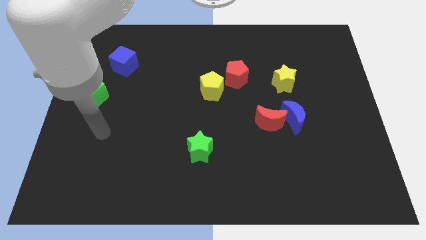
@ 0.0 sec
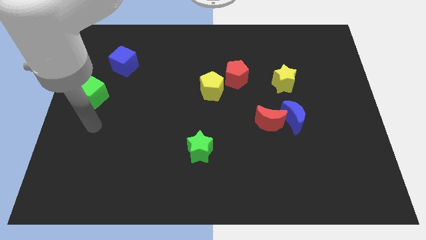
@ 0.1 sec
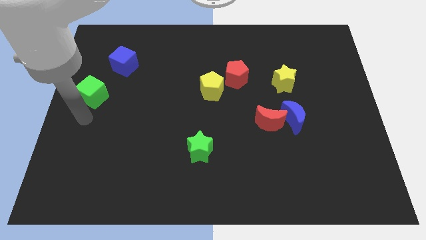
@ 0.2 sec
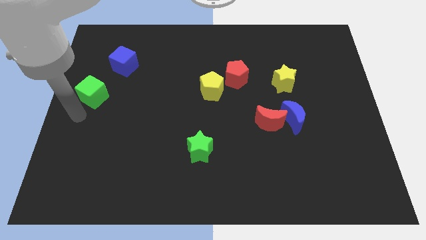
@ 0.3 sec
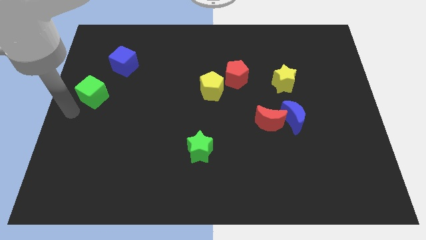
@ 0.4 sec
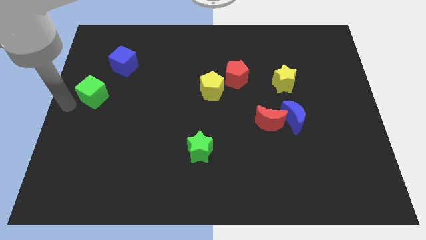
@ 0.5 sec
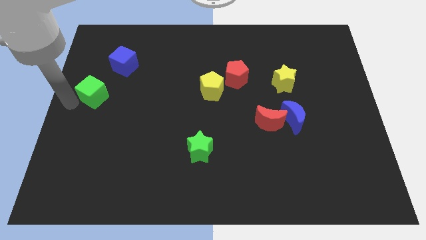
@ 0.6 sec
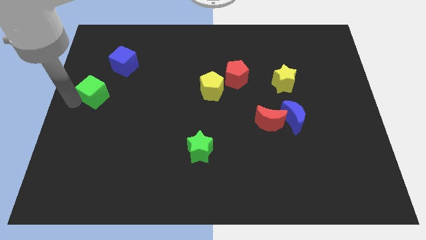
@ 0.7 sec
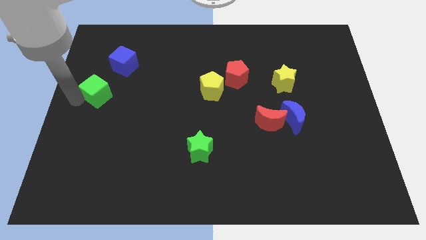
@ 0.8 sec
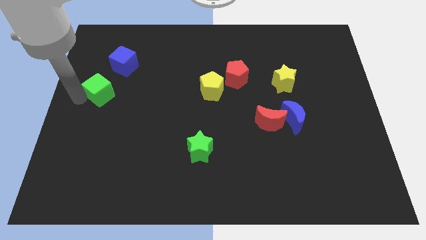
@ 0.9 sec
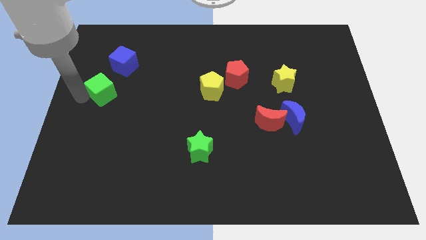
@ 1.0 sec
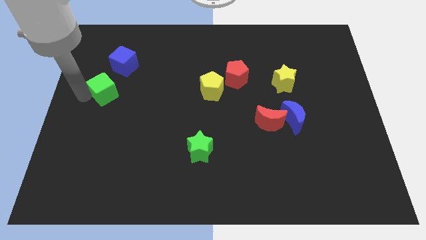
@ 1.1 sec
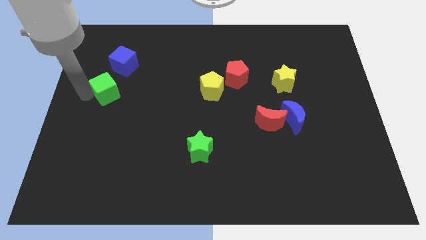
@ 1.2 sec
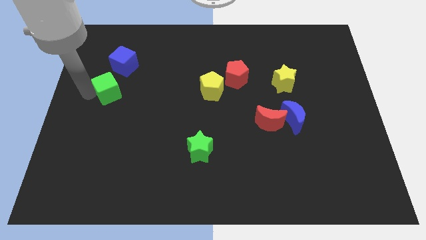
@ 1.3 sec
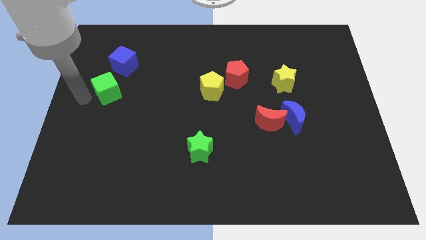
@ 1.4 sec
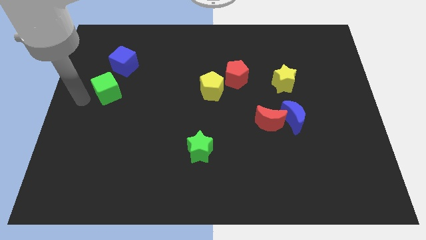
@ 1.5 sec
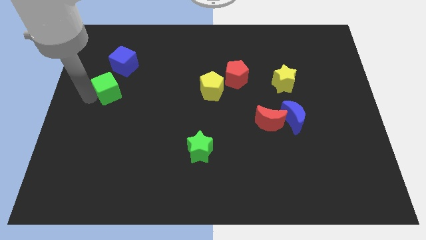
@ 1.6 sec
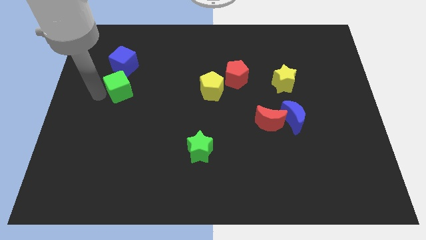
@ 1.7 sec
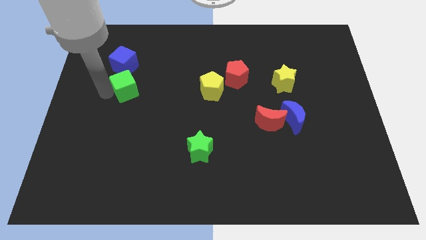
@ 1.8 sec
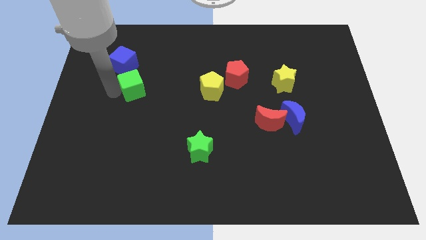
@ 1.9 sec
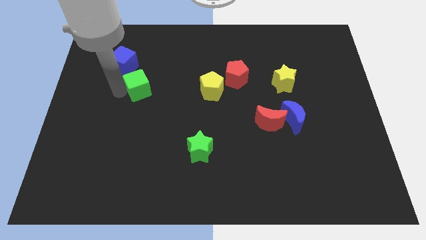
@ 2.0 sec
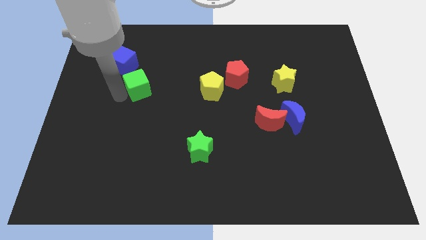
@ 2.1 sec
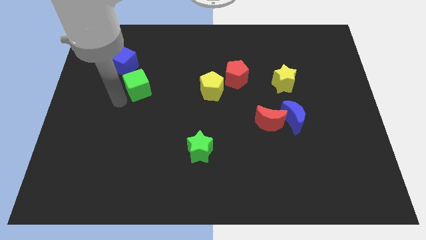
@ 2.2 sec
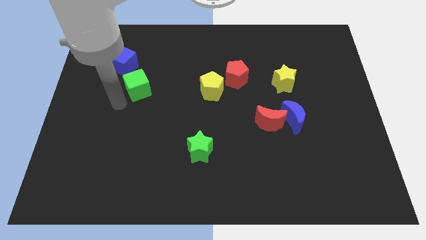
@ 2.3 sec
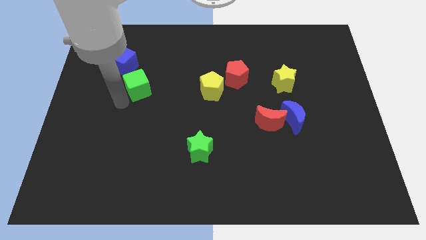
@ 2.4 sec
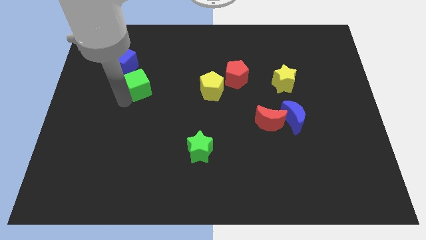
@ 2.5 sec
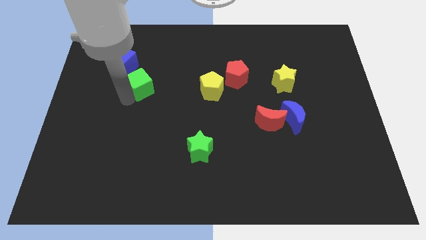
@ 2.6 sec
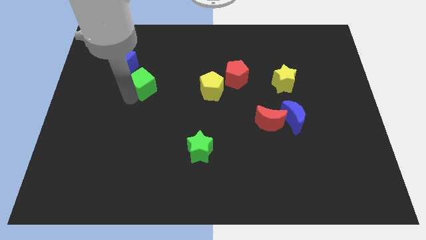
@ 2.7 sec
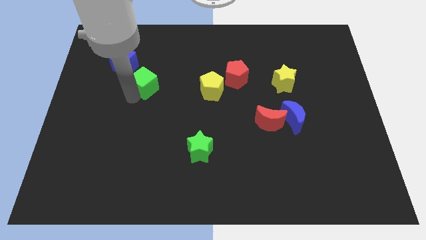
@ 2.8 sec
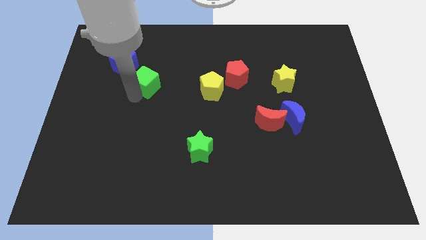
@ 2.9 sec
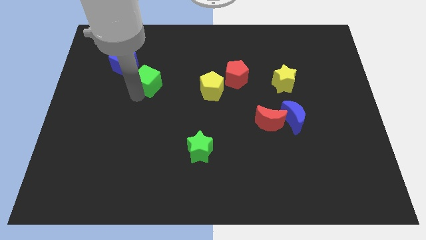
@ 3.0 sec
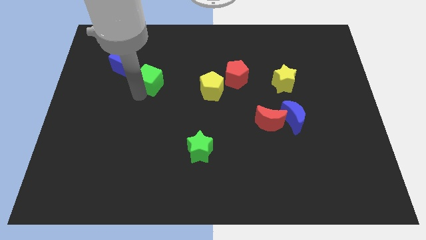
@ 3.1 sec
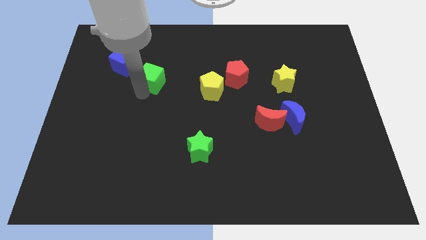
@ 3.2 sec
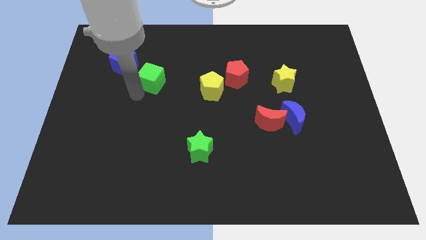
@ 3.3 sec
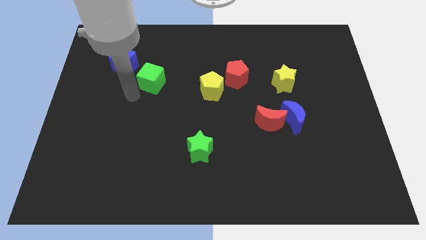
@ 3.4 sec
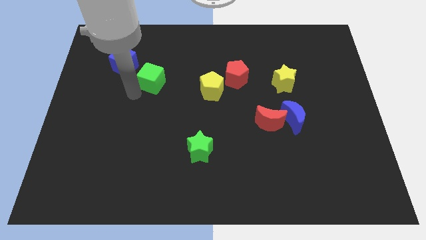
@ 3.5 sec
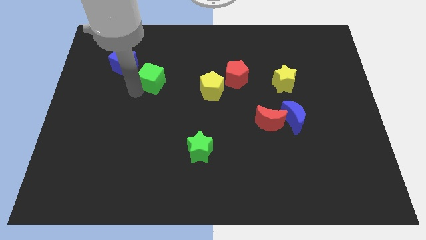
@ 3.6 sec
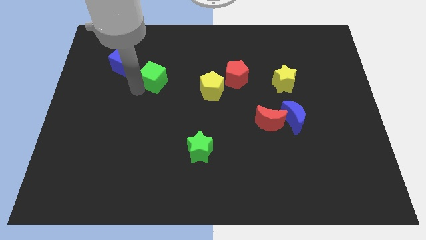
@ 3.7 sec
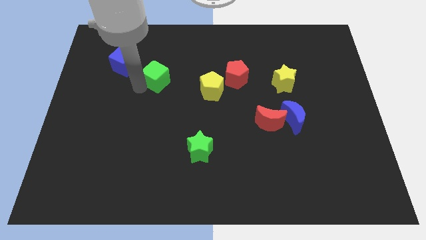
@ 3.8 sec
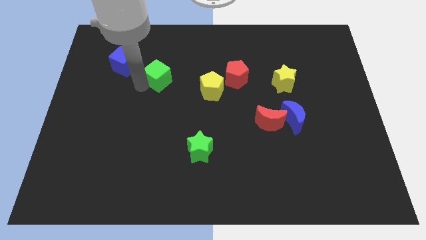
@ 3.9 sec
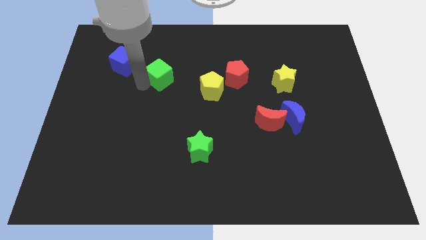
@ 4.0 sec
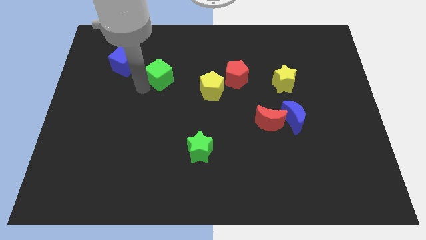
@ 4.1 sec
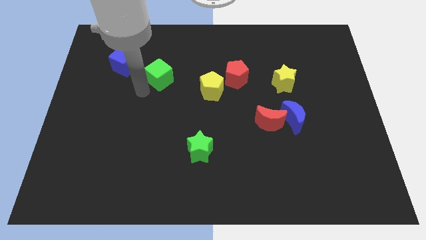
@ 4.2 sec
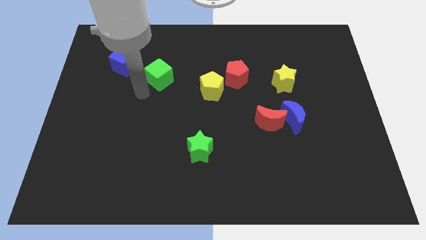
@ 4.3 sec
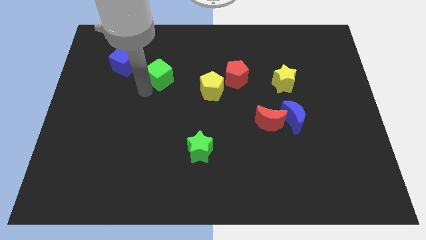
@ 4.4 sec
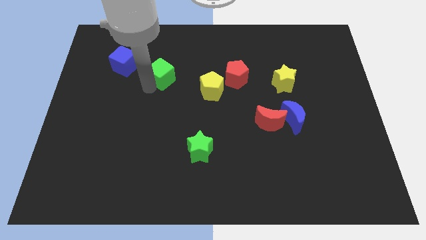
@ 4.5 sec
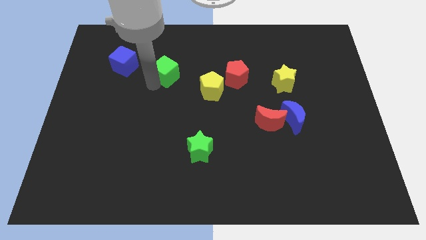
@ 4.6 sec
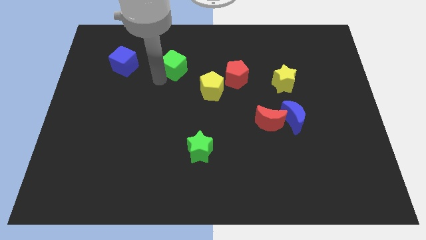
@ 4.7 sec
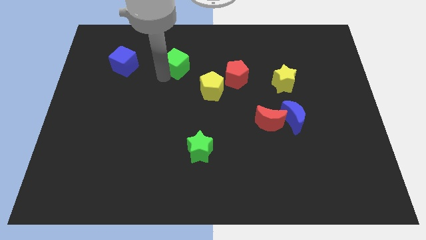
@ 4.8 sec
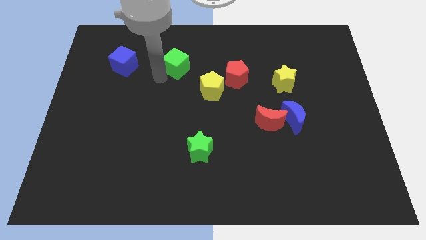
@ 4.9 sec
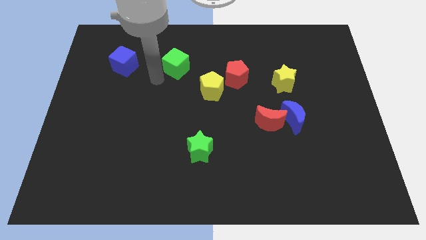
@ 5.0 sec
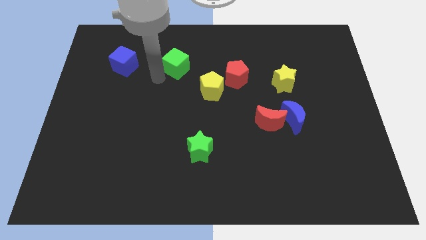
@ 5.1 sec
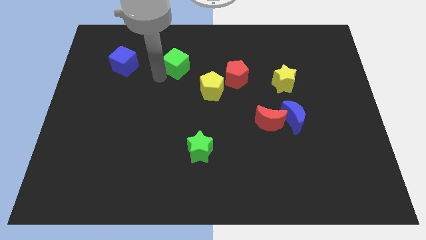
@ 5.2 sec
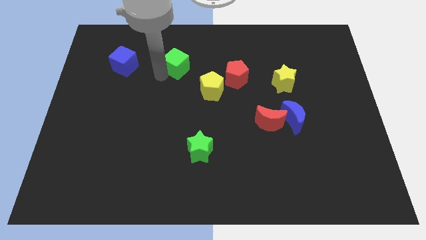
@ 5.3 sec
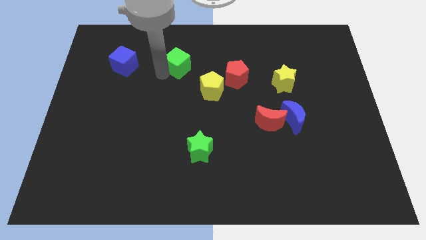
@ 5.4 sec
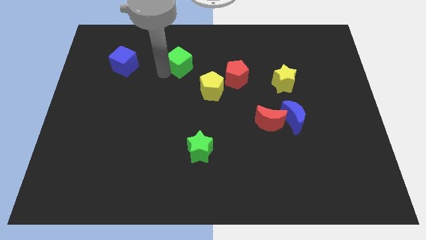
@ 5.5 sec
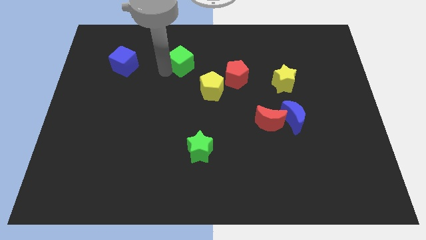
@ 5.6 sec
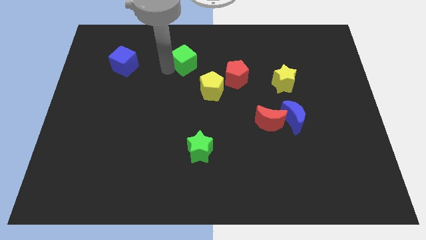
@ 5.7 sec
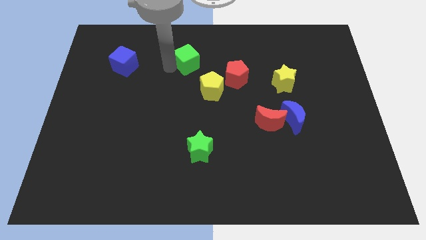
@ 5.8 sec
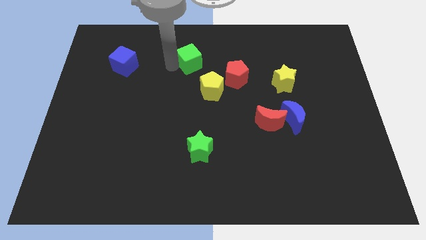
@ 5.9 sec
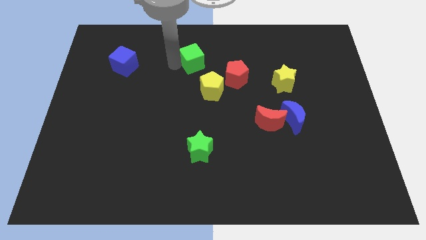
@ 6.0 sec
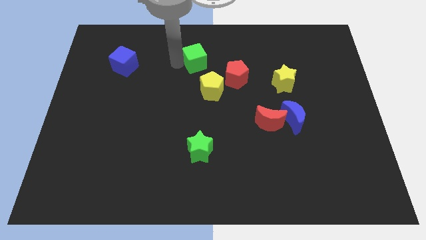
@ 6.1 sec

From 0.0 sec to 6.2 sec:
put the green cube above the yellow pentagon
